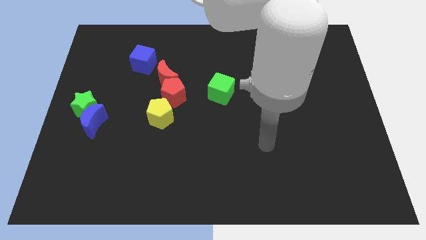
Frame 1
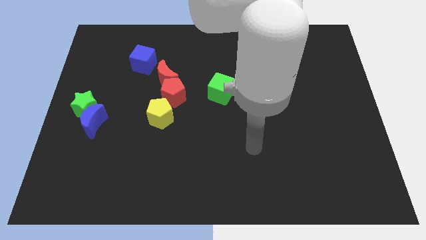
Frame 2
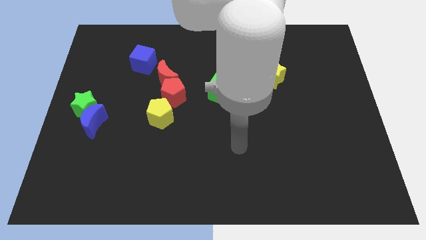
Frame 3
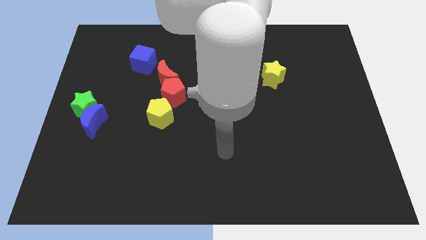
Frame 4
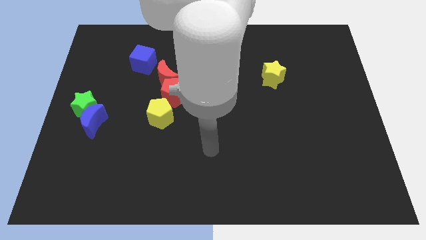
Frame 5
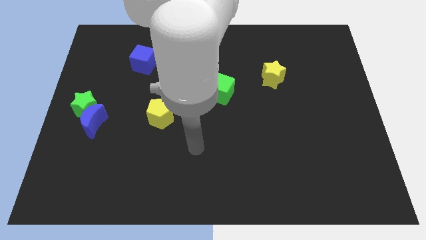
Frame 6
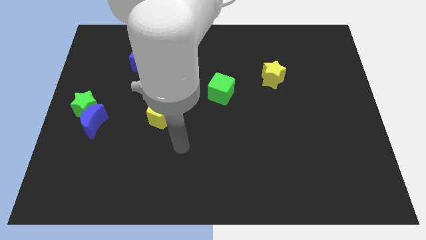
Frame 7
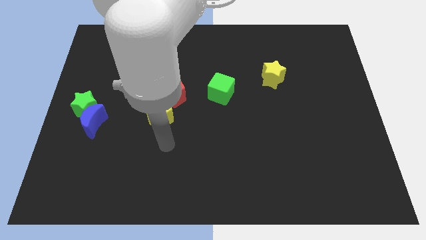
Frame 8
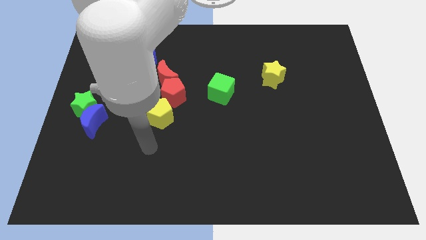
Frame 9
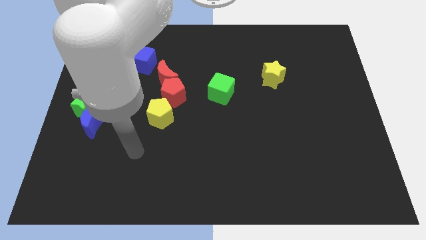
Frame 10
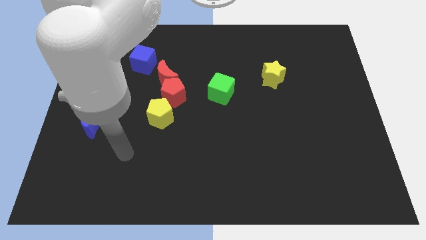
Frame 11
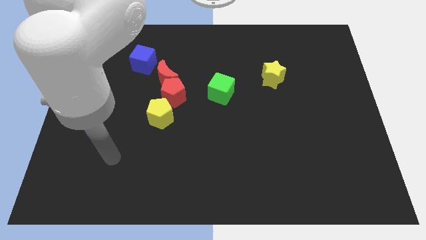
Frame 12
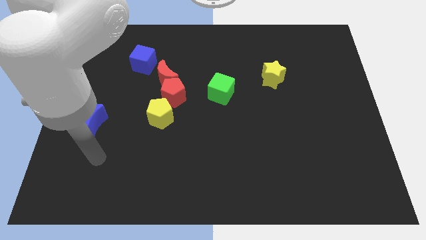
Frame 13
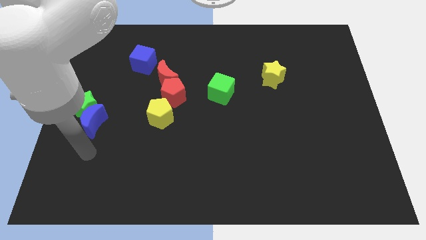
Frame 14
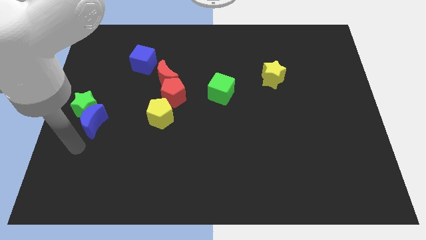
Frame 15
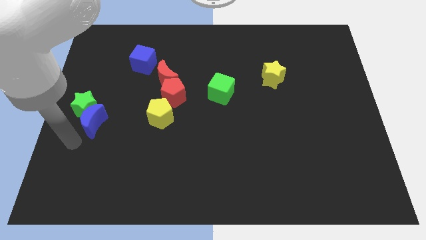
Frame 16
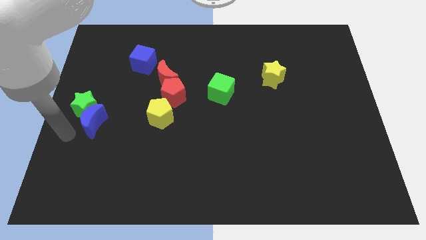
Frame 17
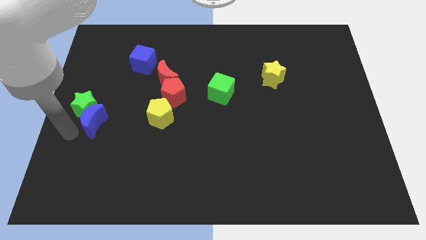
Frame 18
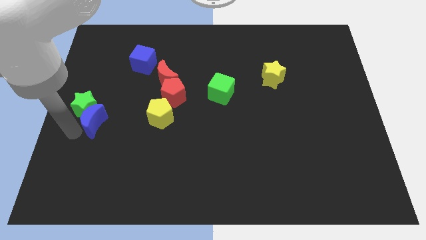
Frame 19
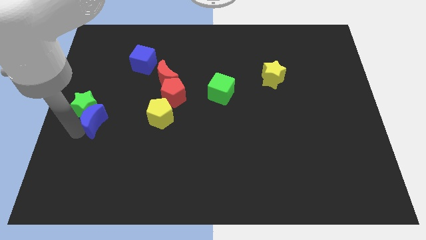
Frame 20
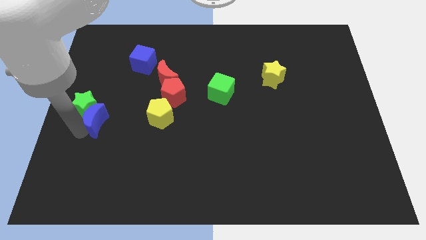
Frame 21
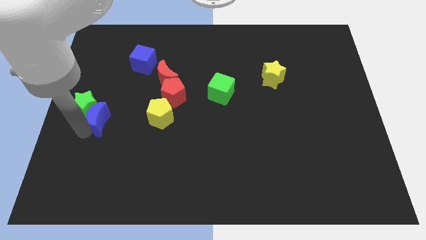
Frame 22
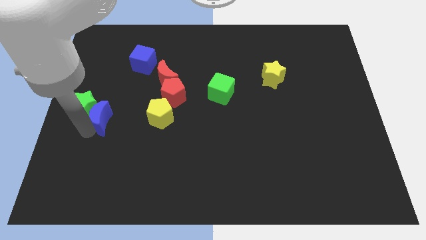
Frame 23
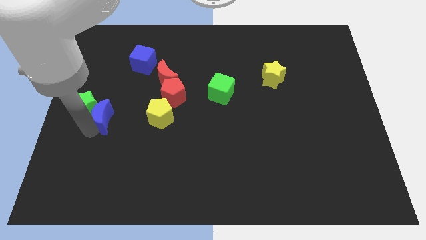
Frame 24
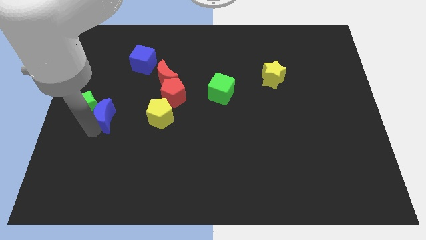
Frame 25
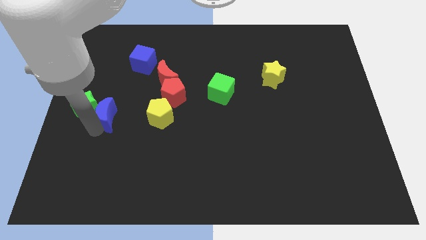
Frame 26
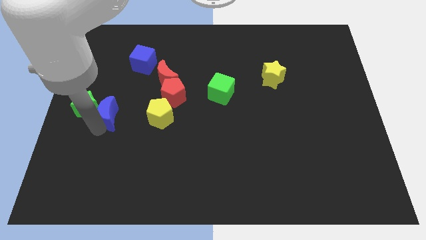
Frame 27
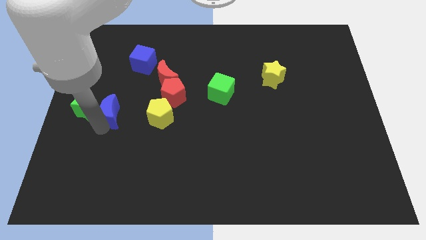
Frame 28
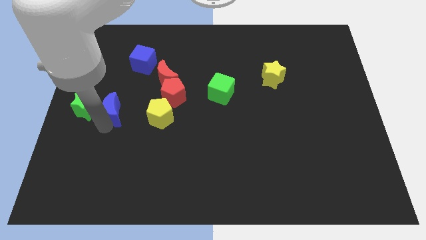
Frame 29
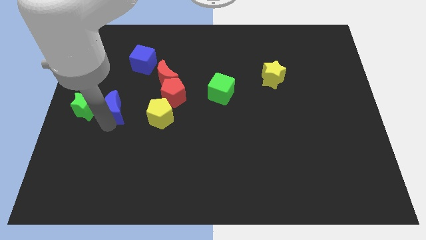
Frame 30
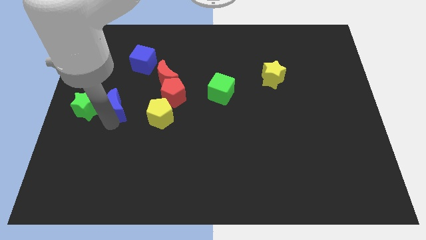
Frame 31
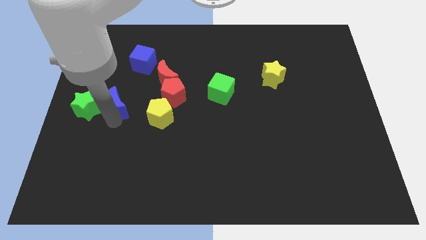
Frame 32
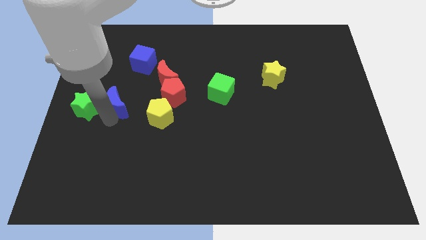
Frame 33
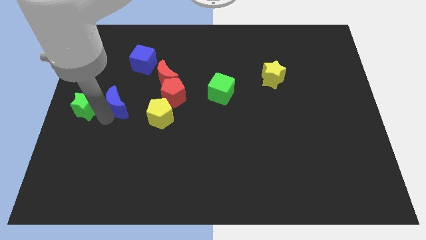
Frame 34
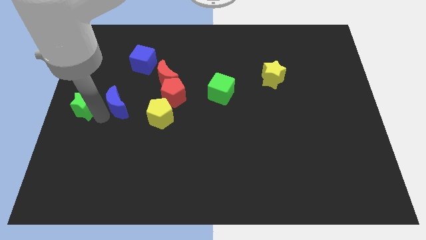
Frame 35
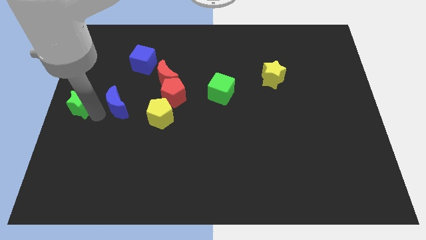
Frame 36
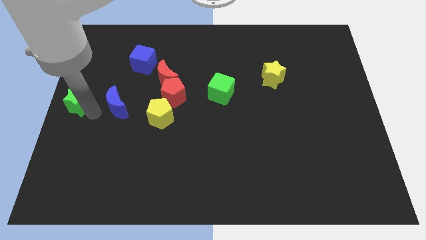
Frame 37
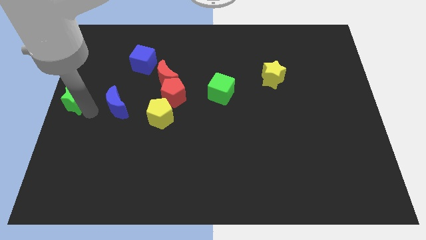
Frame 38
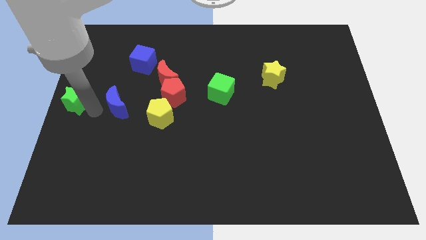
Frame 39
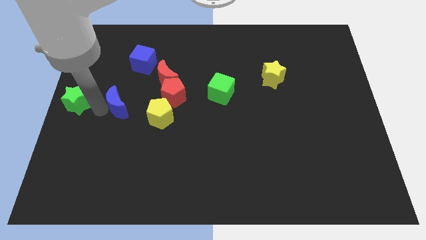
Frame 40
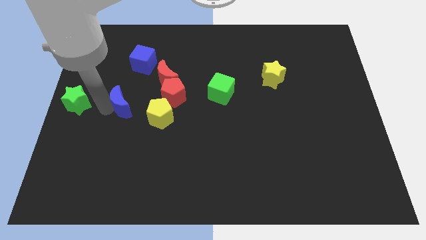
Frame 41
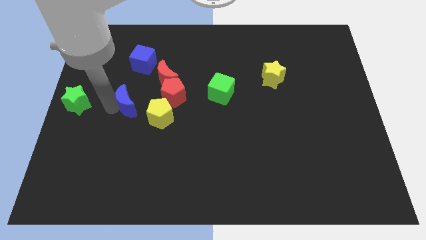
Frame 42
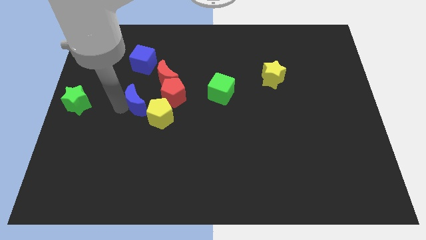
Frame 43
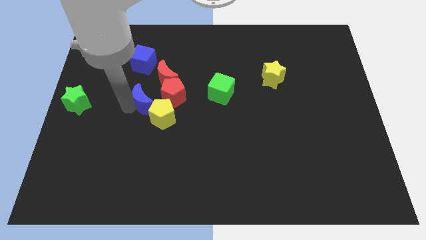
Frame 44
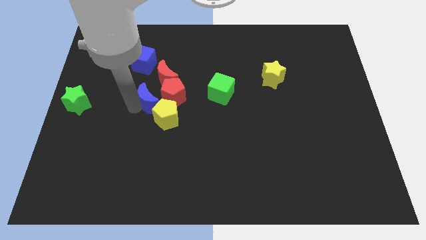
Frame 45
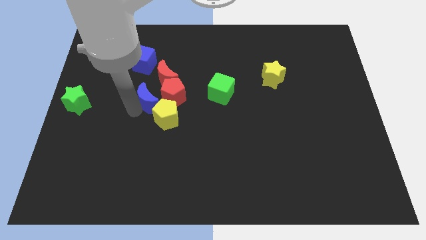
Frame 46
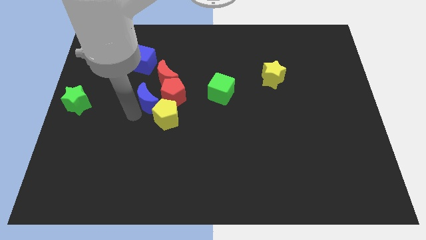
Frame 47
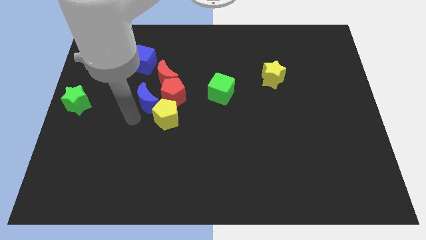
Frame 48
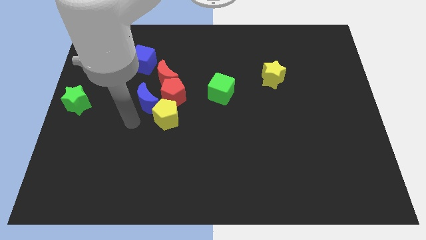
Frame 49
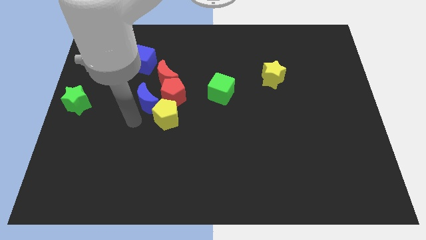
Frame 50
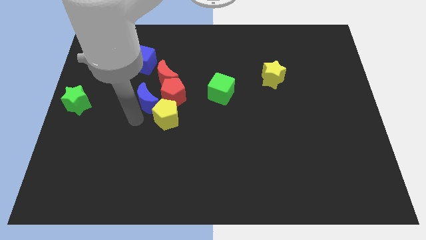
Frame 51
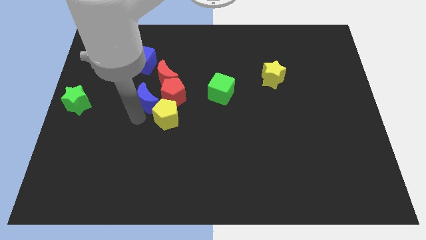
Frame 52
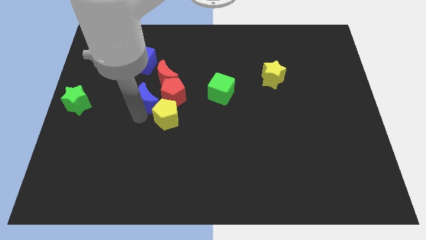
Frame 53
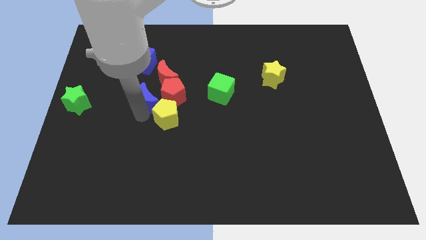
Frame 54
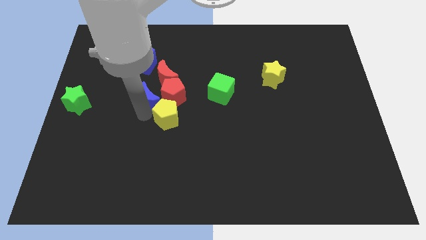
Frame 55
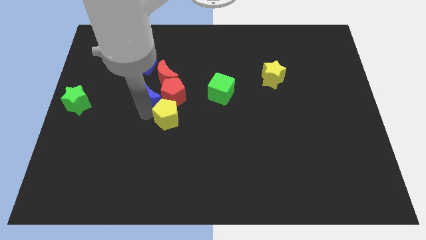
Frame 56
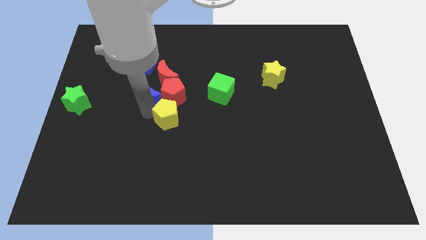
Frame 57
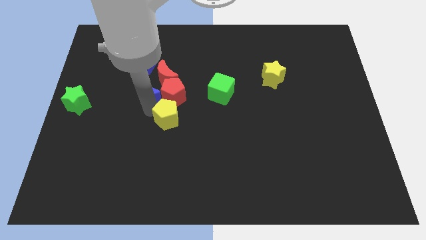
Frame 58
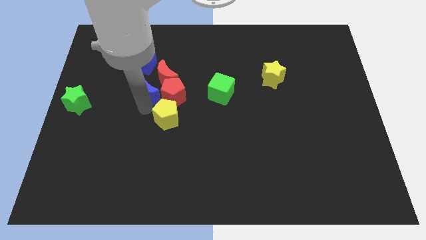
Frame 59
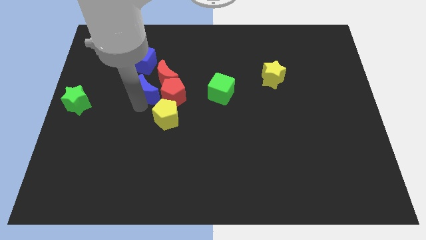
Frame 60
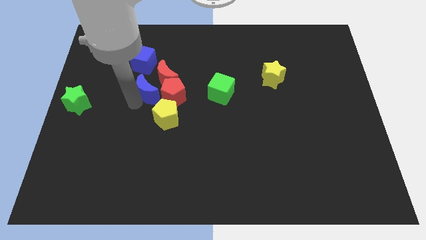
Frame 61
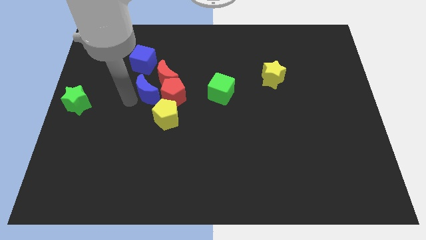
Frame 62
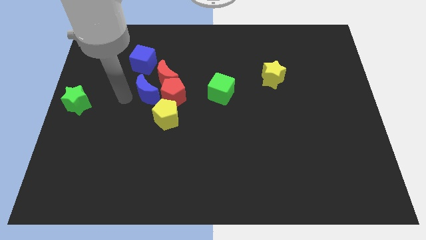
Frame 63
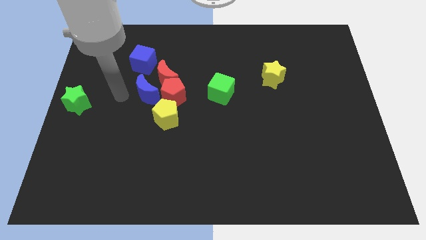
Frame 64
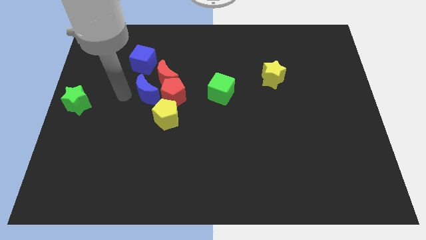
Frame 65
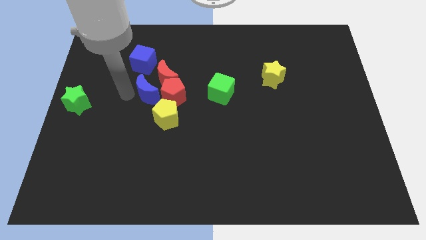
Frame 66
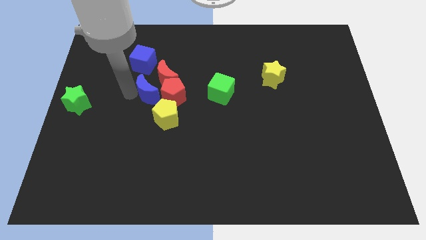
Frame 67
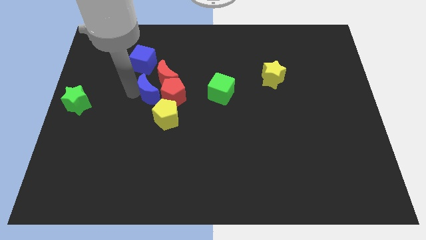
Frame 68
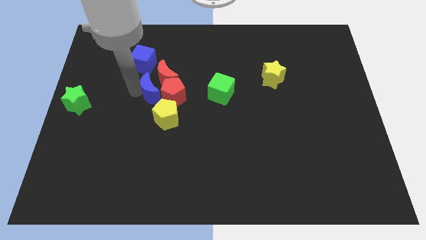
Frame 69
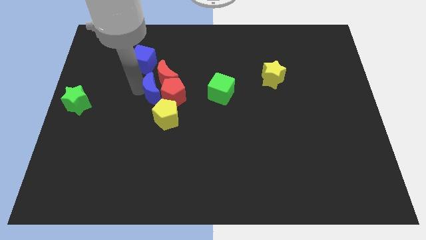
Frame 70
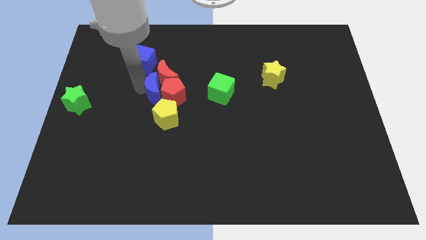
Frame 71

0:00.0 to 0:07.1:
put the blue moon to the left of the green cube

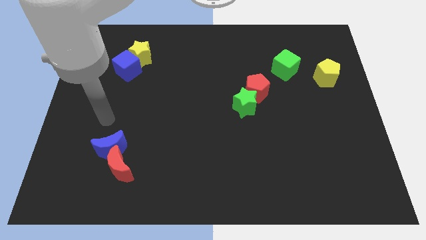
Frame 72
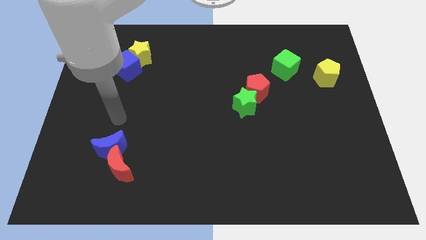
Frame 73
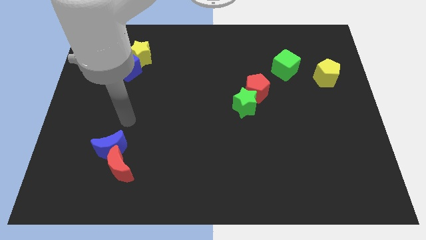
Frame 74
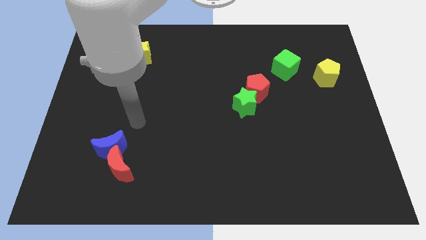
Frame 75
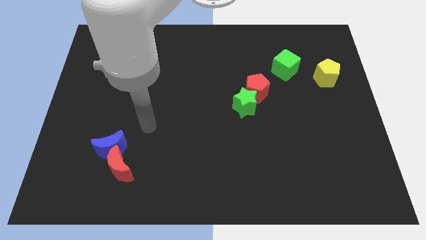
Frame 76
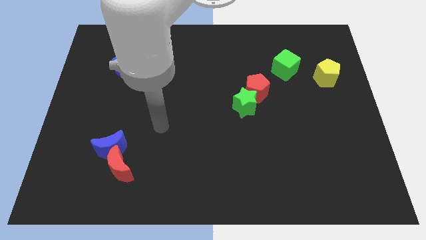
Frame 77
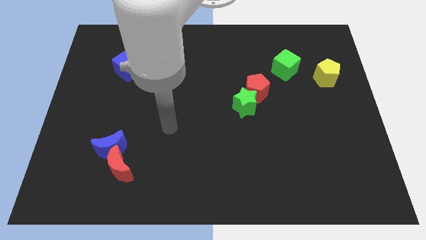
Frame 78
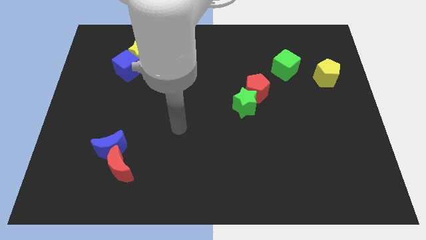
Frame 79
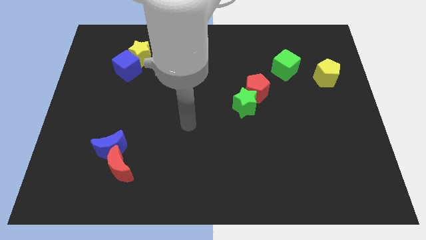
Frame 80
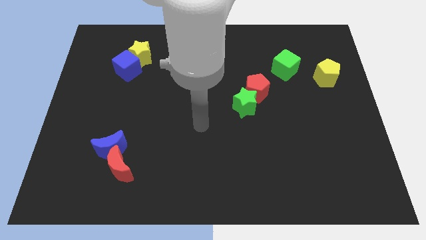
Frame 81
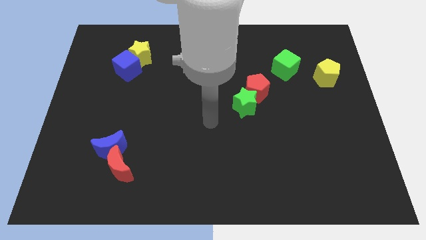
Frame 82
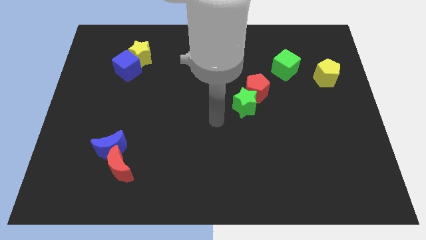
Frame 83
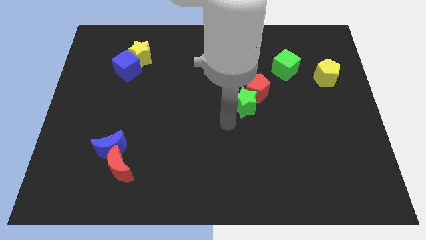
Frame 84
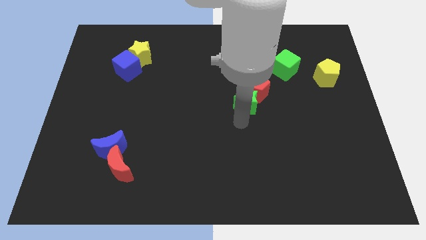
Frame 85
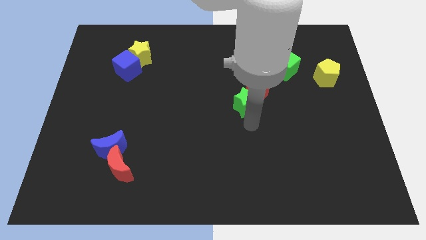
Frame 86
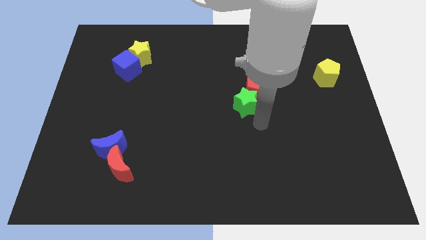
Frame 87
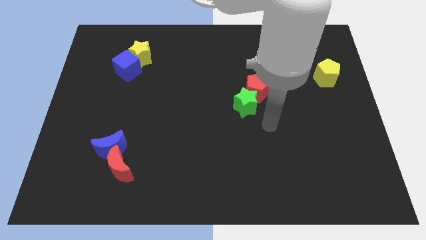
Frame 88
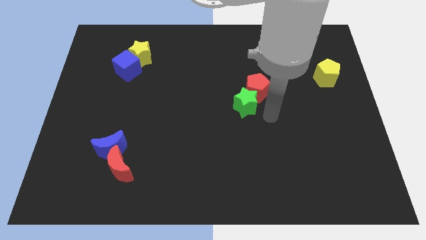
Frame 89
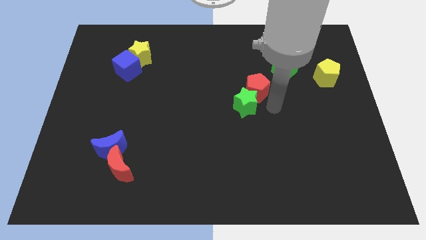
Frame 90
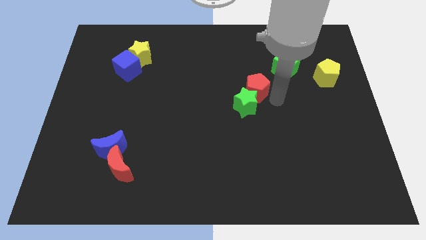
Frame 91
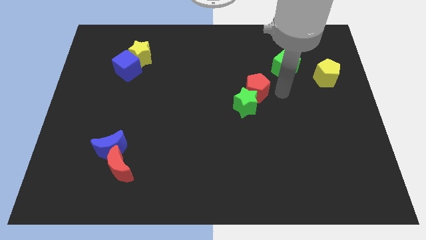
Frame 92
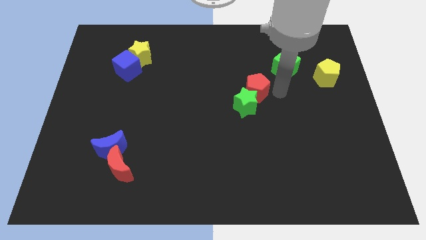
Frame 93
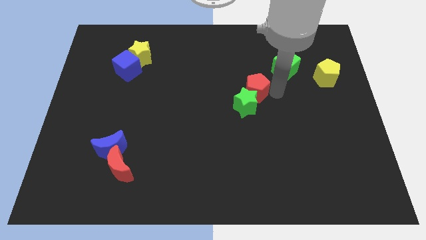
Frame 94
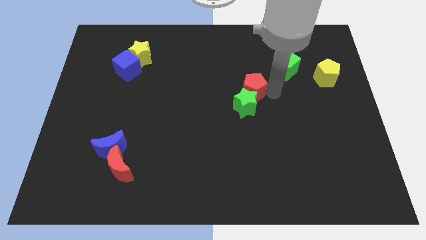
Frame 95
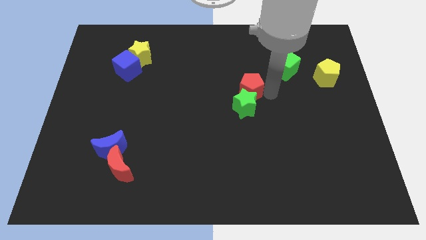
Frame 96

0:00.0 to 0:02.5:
move the red pentagon diagonally up and to the left of the green star
